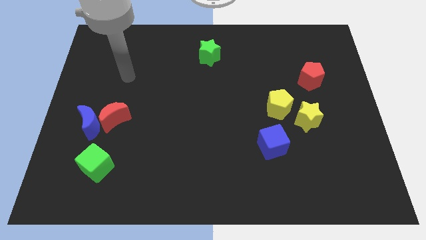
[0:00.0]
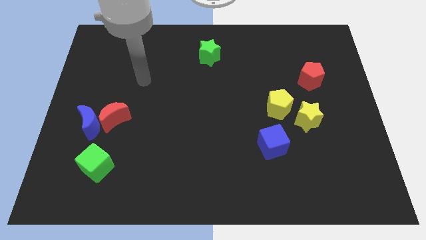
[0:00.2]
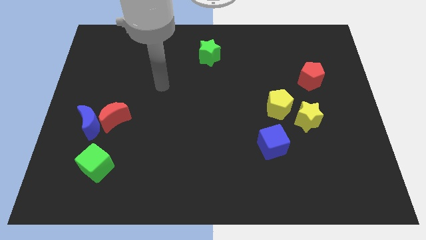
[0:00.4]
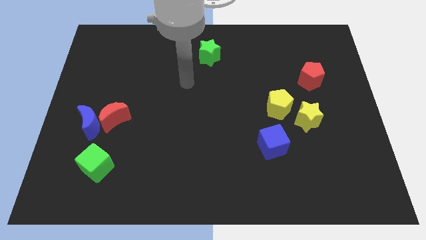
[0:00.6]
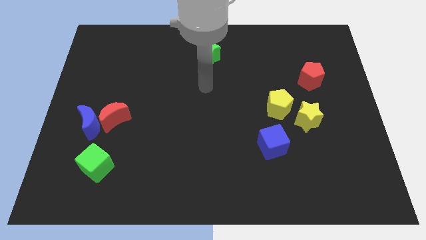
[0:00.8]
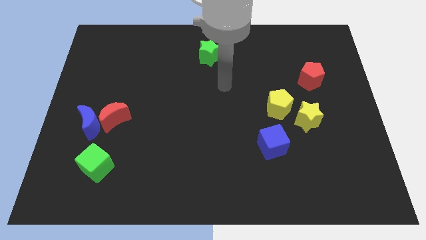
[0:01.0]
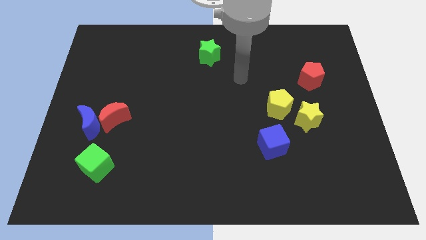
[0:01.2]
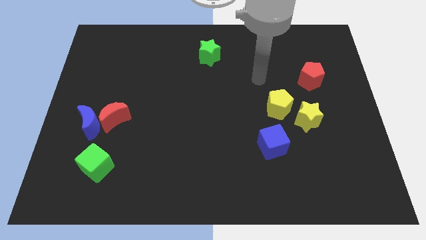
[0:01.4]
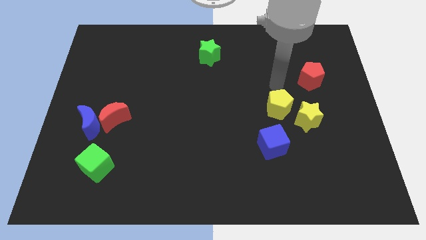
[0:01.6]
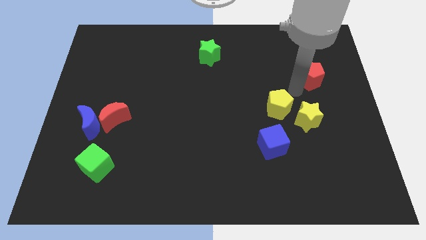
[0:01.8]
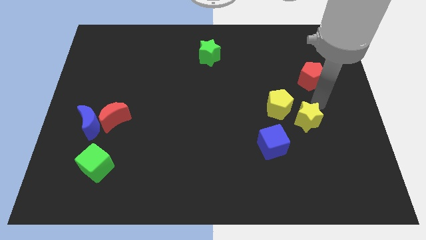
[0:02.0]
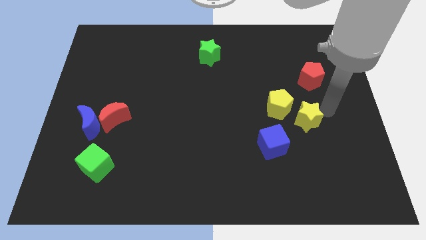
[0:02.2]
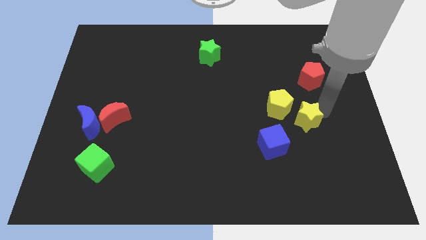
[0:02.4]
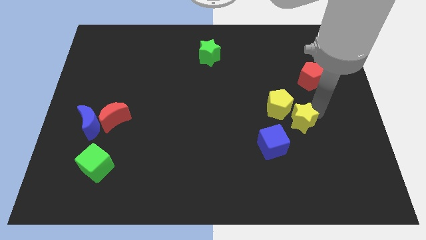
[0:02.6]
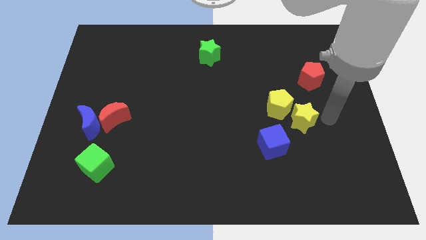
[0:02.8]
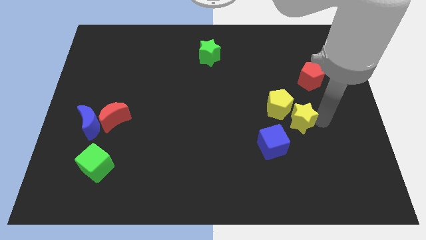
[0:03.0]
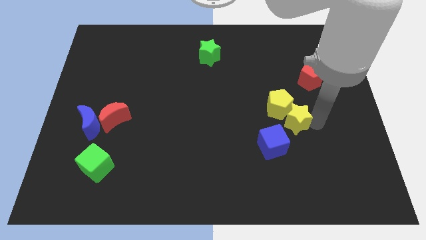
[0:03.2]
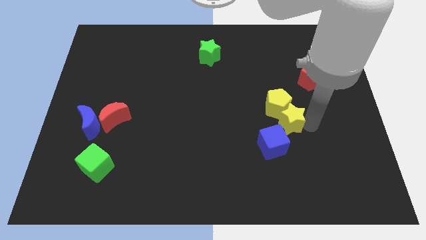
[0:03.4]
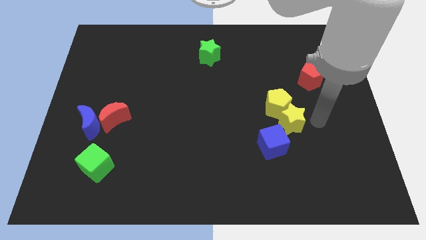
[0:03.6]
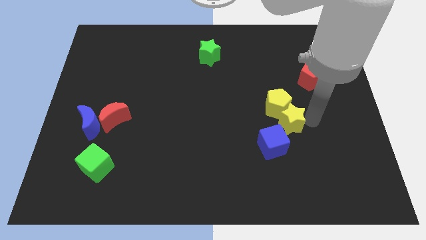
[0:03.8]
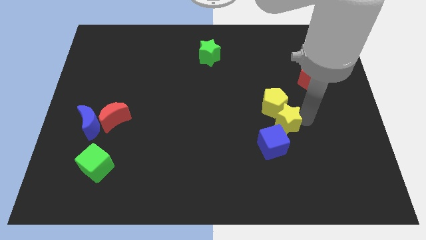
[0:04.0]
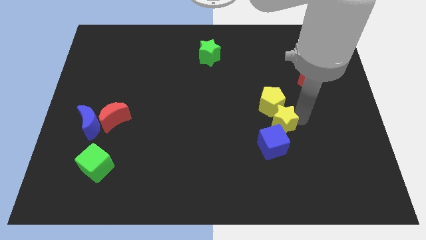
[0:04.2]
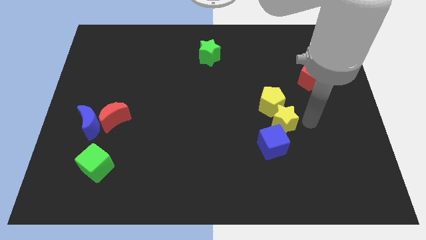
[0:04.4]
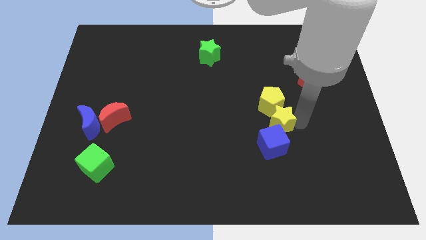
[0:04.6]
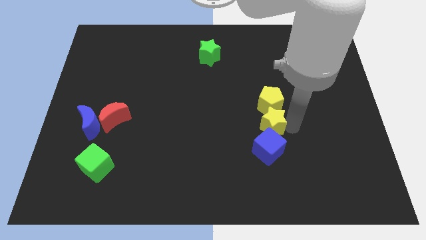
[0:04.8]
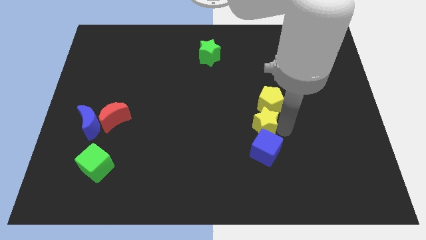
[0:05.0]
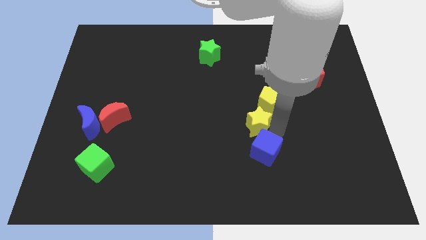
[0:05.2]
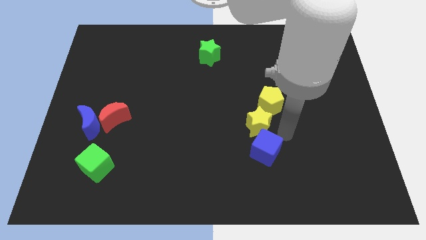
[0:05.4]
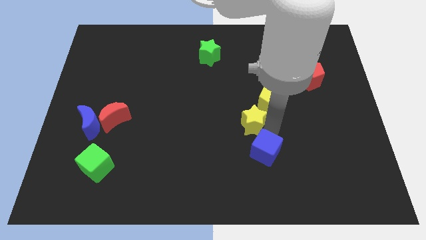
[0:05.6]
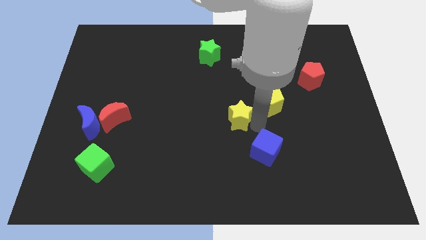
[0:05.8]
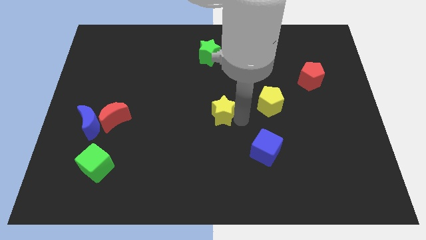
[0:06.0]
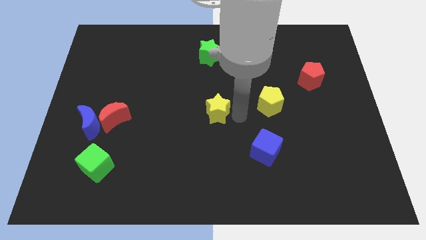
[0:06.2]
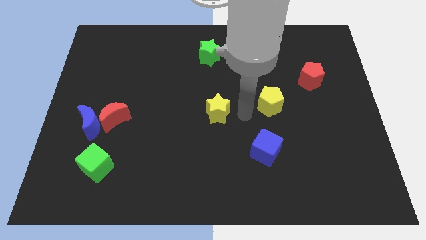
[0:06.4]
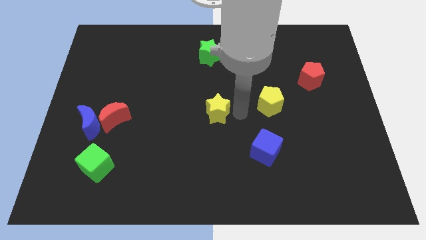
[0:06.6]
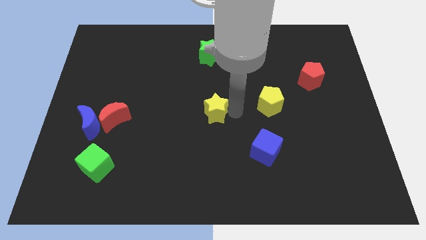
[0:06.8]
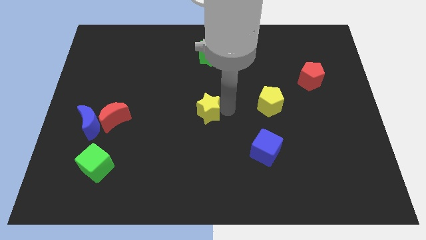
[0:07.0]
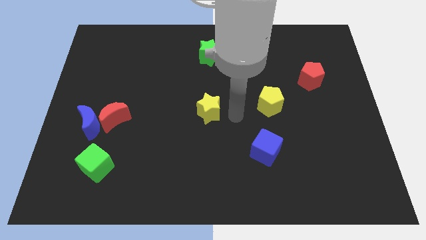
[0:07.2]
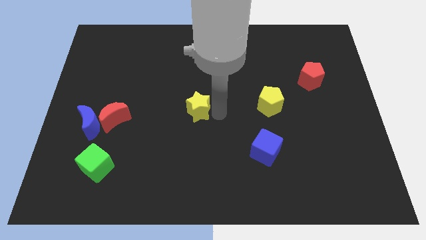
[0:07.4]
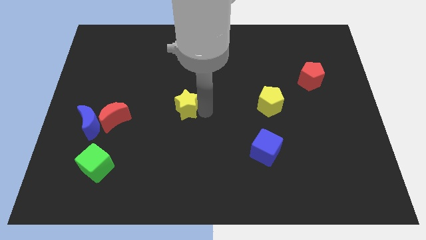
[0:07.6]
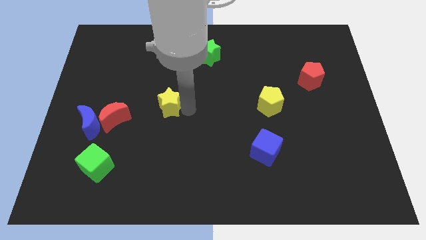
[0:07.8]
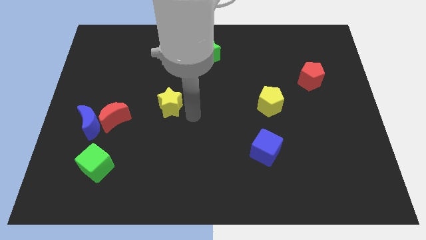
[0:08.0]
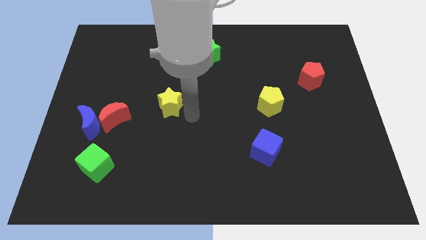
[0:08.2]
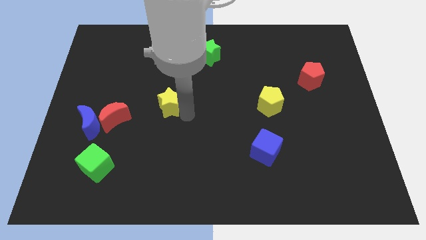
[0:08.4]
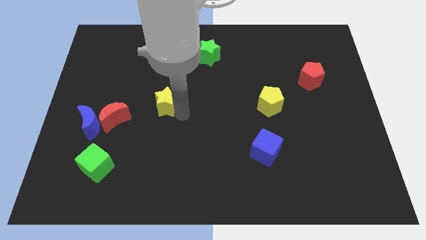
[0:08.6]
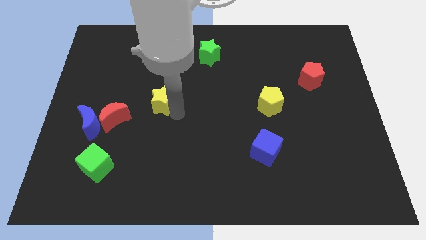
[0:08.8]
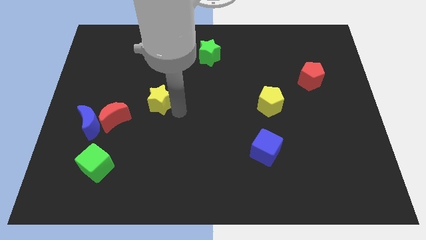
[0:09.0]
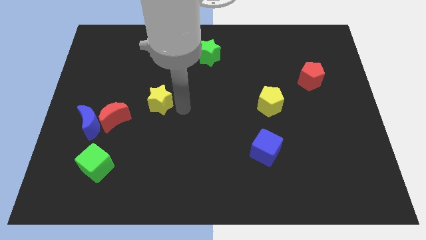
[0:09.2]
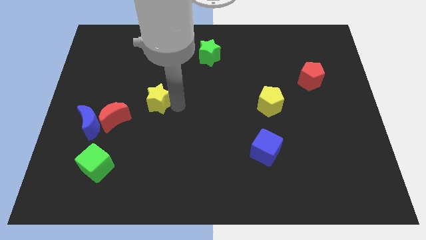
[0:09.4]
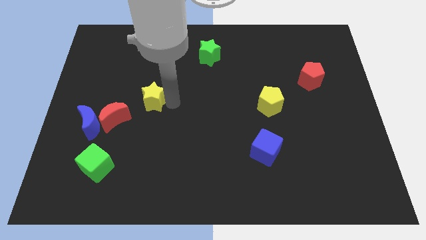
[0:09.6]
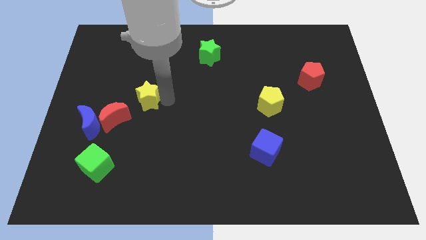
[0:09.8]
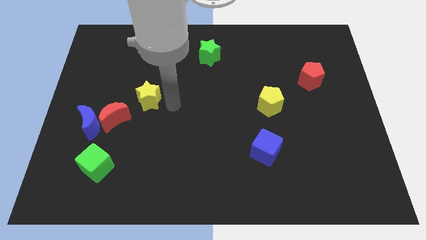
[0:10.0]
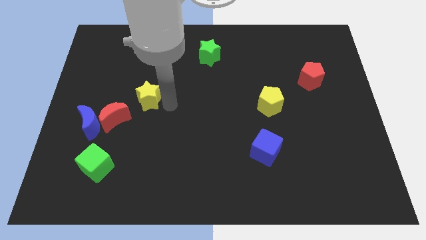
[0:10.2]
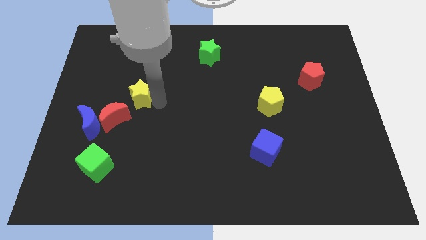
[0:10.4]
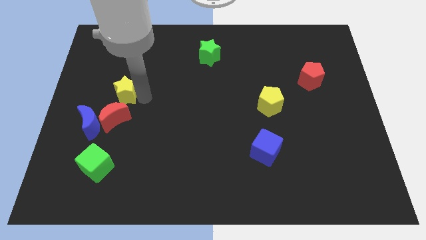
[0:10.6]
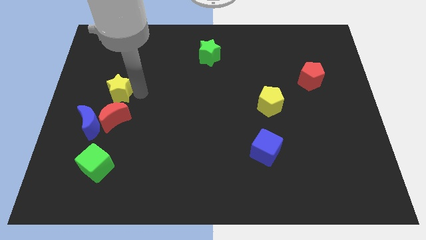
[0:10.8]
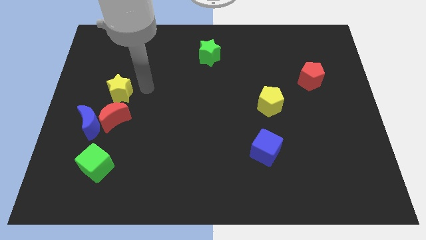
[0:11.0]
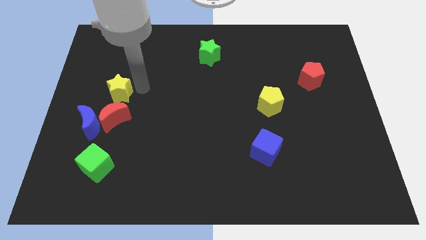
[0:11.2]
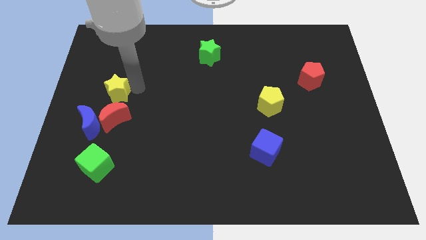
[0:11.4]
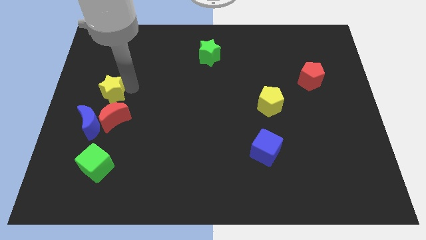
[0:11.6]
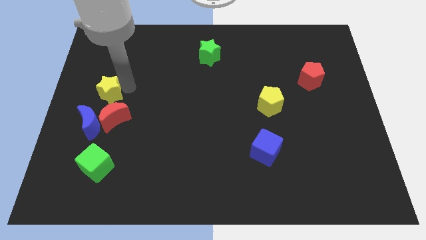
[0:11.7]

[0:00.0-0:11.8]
move the yellow star to the center left

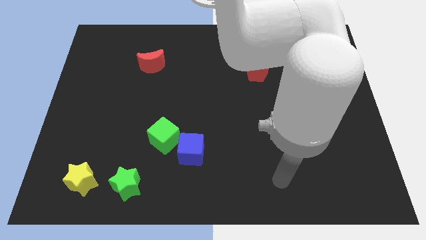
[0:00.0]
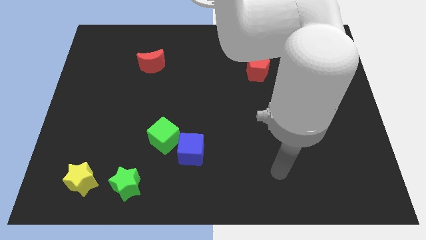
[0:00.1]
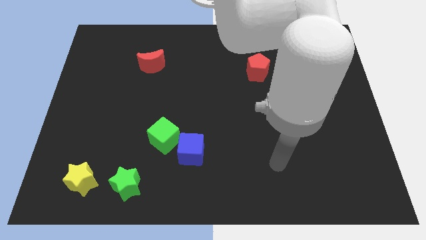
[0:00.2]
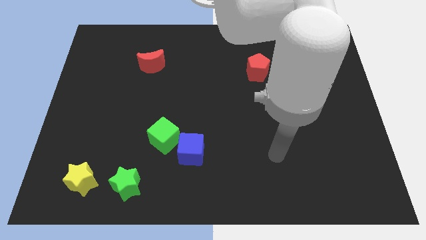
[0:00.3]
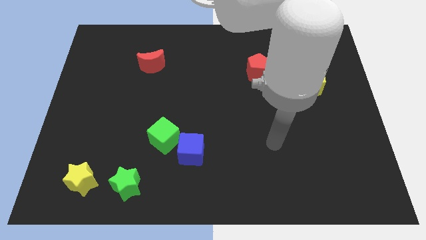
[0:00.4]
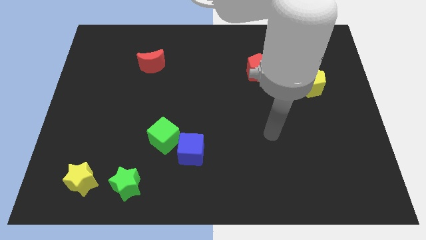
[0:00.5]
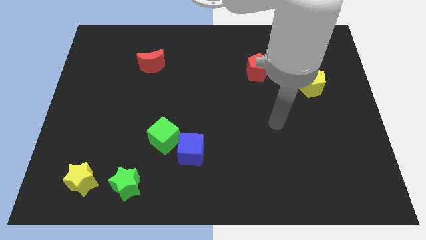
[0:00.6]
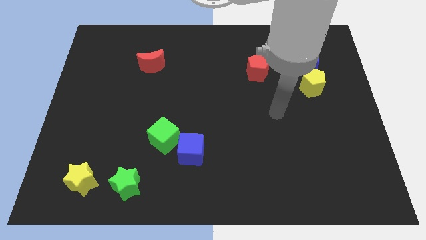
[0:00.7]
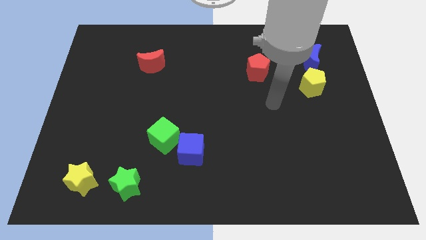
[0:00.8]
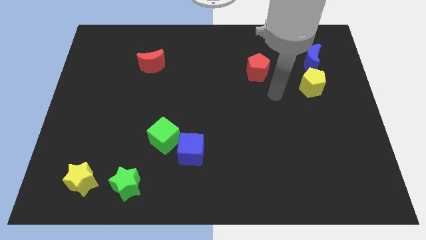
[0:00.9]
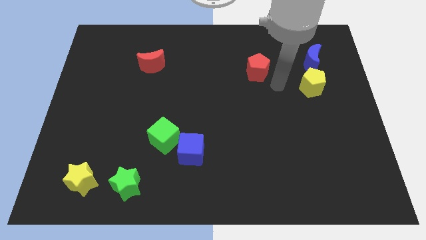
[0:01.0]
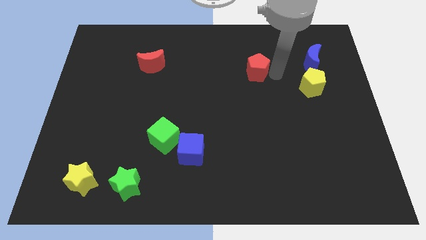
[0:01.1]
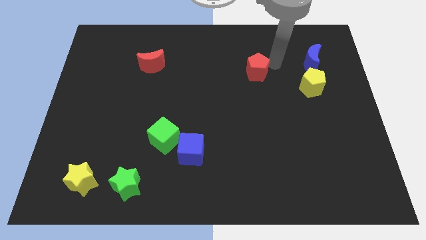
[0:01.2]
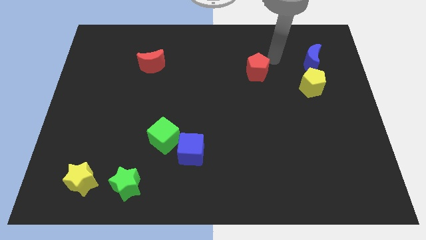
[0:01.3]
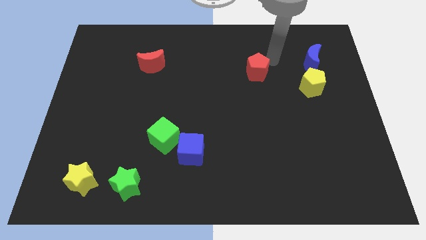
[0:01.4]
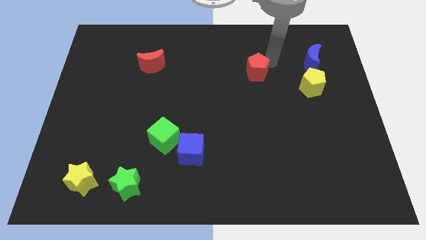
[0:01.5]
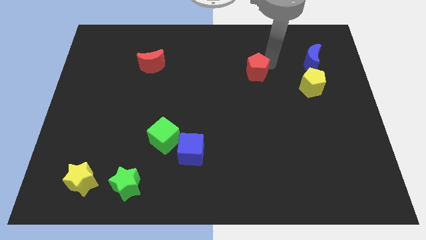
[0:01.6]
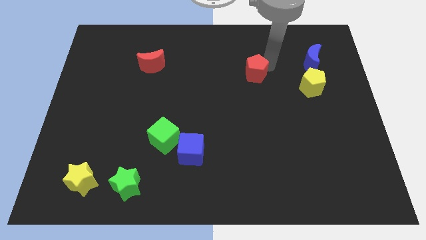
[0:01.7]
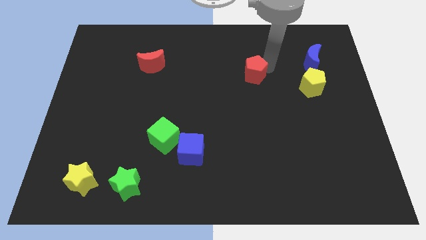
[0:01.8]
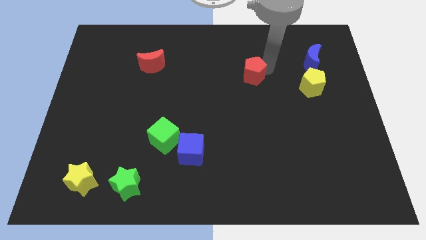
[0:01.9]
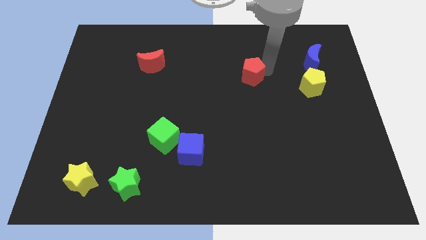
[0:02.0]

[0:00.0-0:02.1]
slide the red pentagon to the middle of the board
